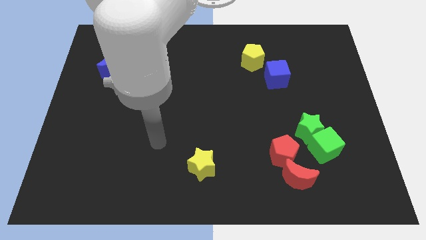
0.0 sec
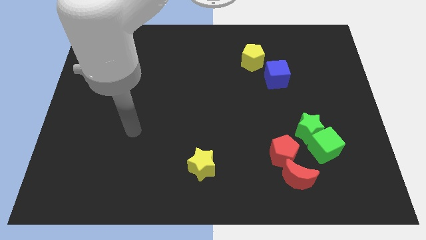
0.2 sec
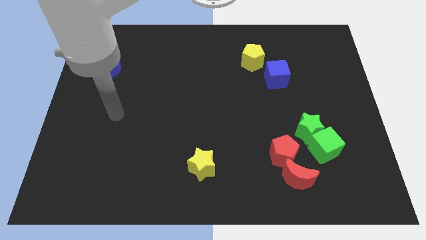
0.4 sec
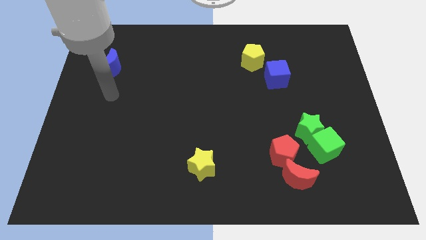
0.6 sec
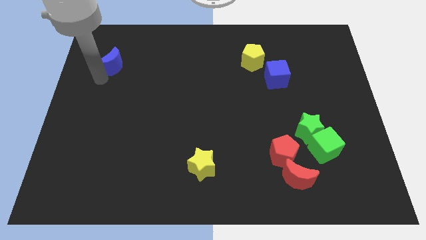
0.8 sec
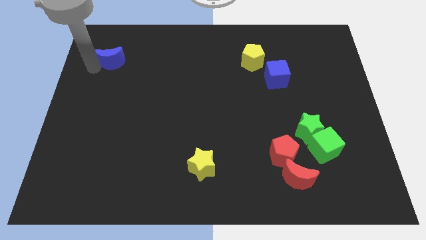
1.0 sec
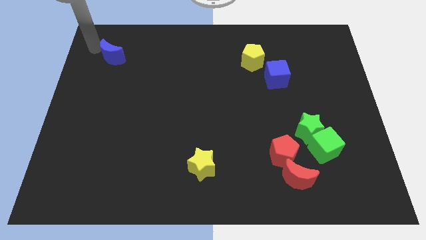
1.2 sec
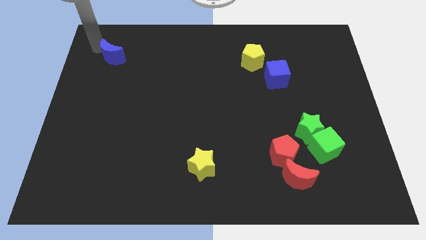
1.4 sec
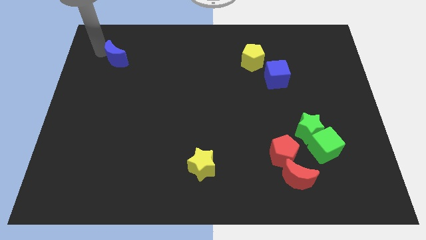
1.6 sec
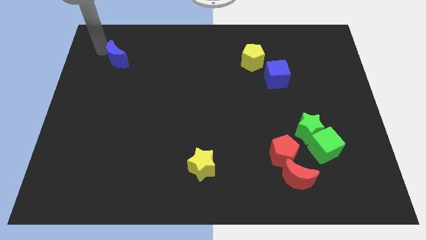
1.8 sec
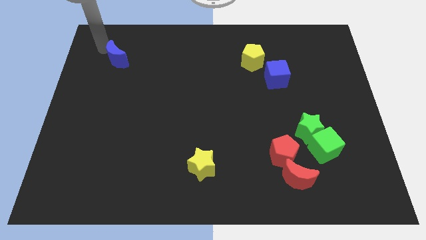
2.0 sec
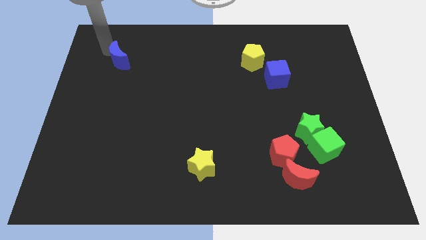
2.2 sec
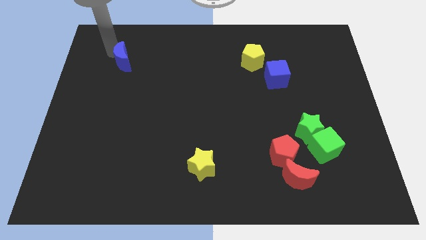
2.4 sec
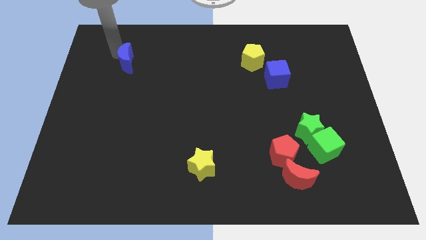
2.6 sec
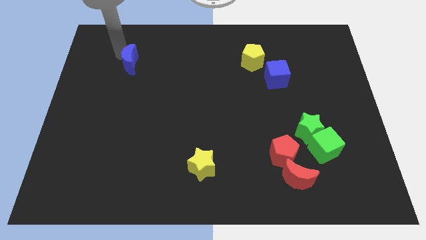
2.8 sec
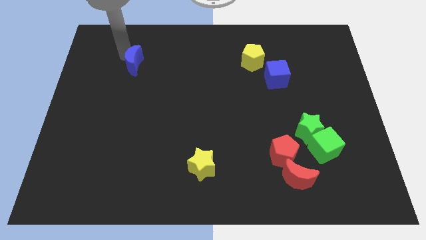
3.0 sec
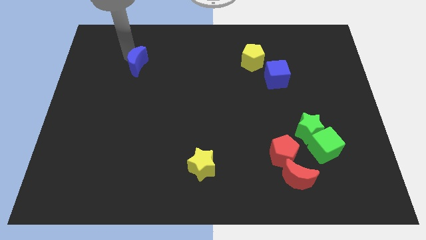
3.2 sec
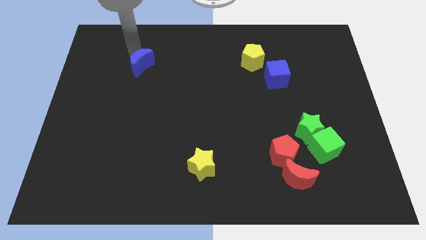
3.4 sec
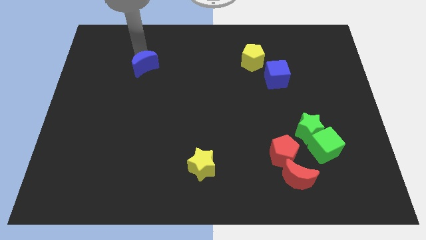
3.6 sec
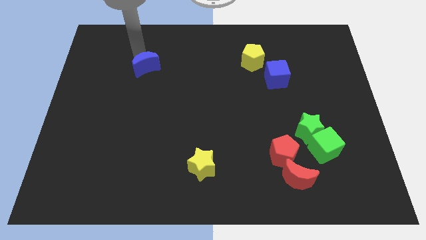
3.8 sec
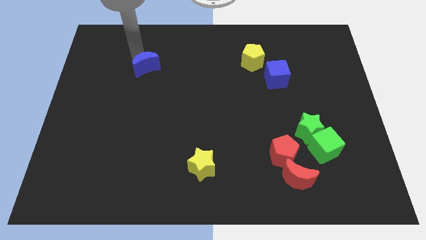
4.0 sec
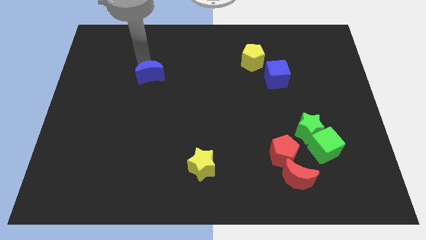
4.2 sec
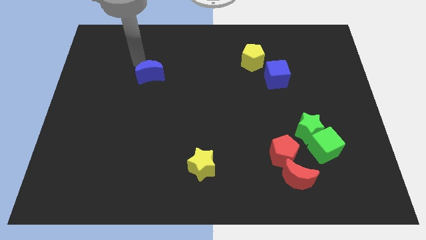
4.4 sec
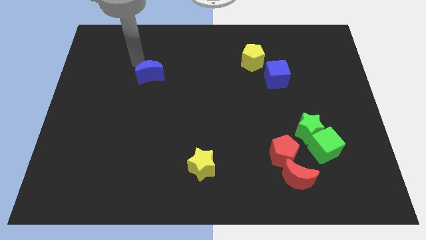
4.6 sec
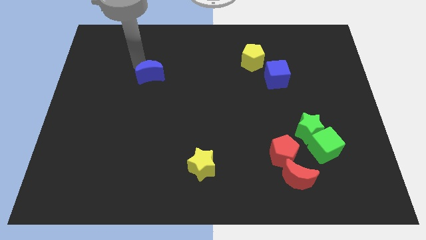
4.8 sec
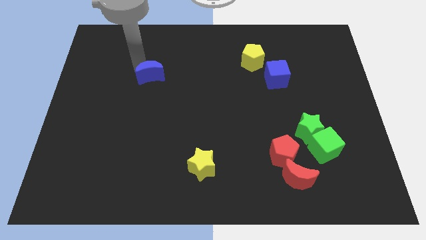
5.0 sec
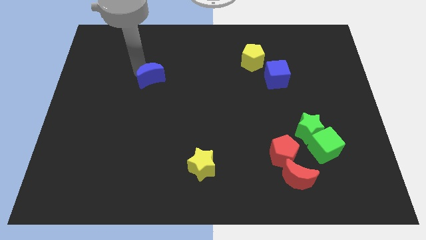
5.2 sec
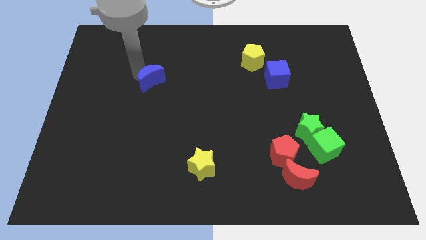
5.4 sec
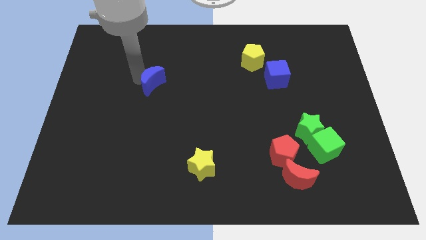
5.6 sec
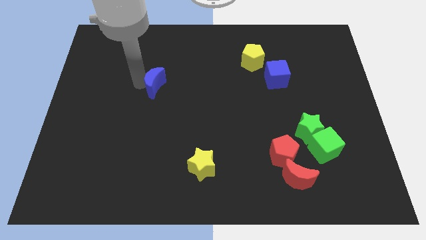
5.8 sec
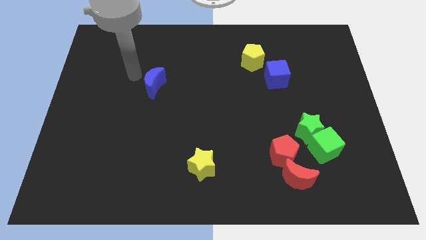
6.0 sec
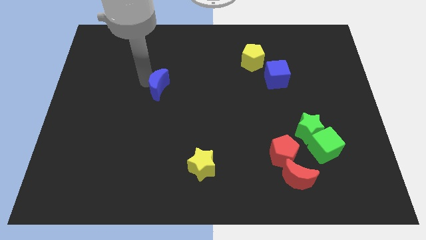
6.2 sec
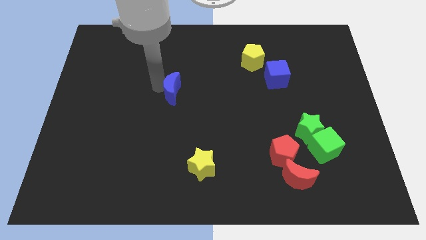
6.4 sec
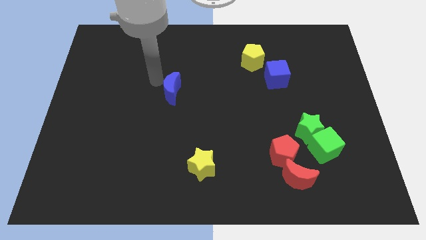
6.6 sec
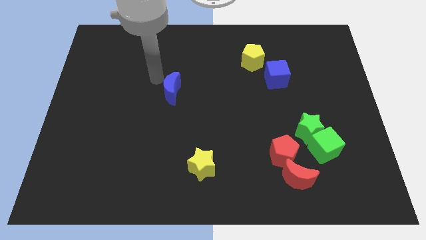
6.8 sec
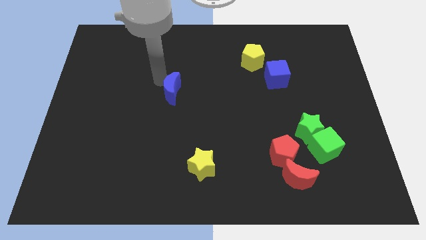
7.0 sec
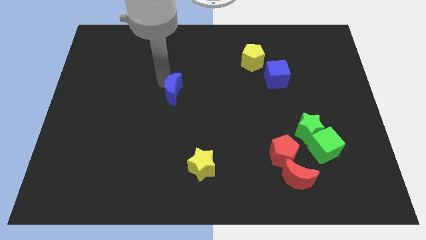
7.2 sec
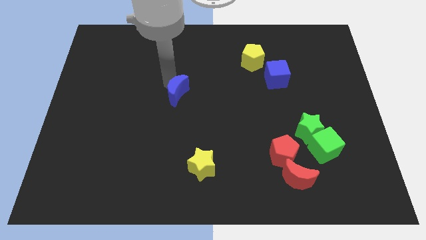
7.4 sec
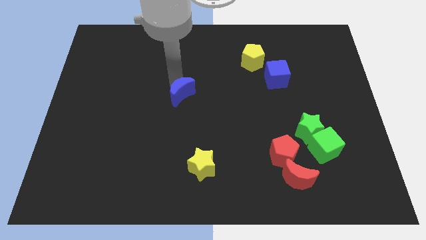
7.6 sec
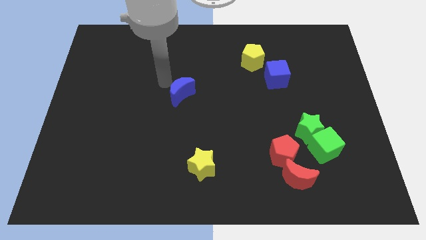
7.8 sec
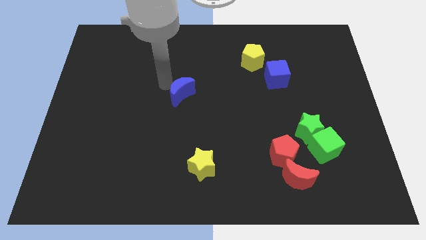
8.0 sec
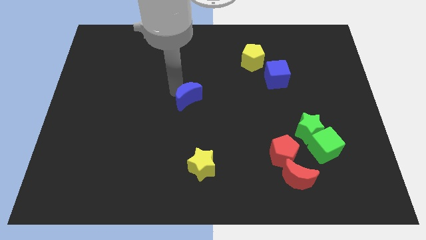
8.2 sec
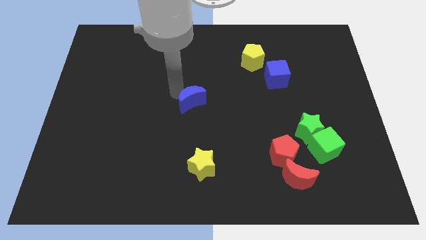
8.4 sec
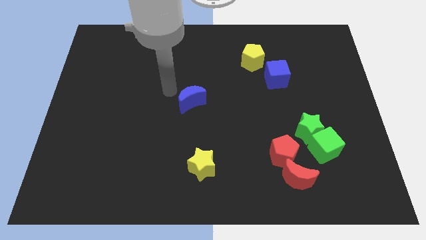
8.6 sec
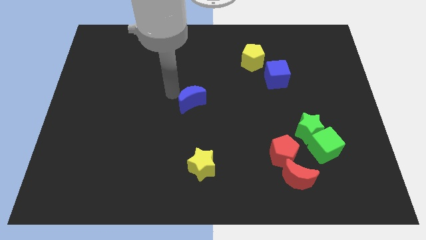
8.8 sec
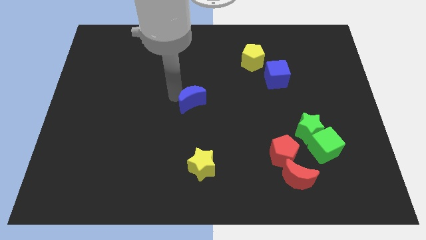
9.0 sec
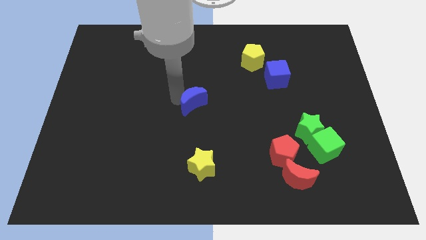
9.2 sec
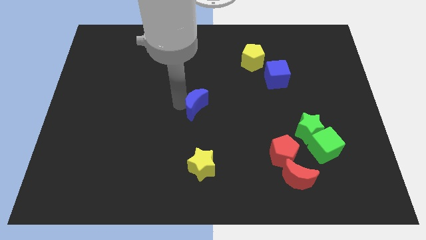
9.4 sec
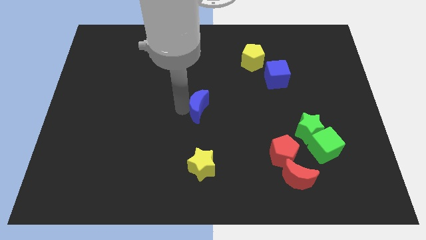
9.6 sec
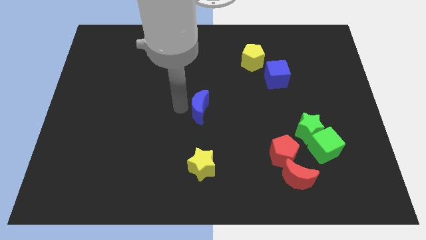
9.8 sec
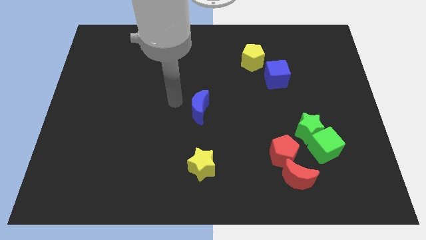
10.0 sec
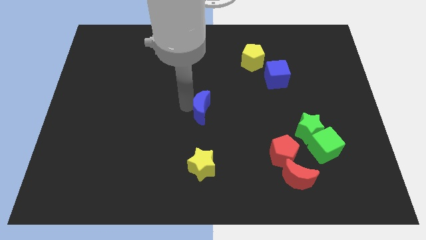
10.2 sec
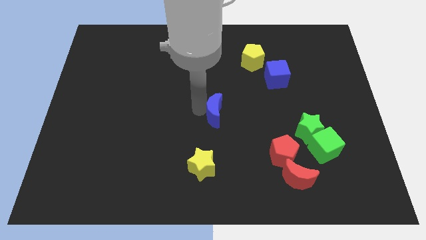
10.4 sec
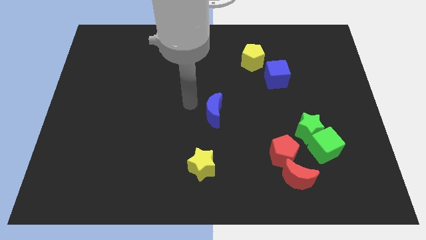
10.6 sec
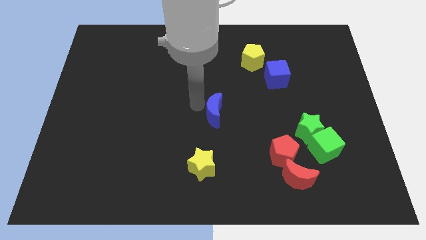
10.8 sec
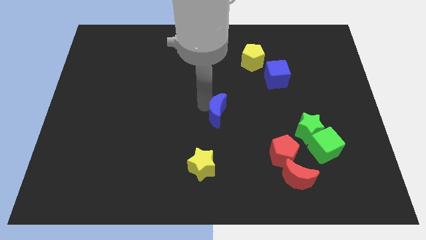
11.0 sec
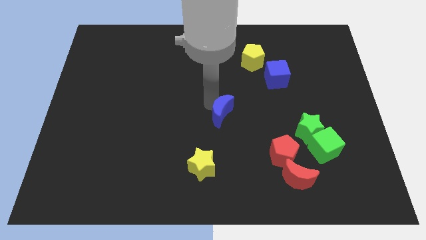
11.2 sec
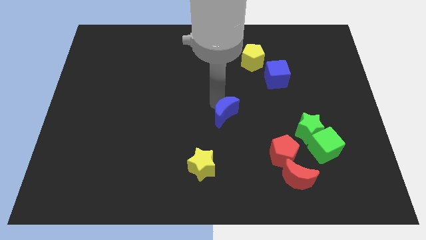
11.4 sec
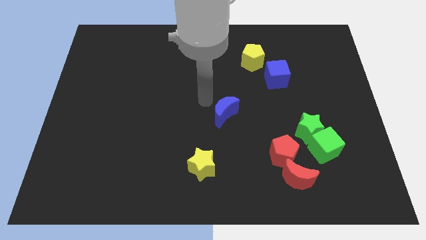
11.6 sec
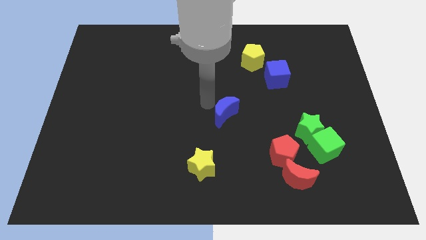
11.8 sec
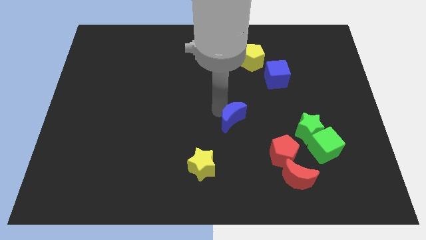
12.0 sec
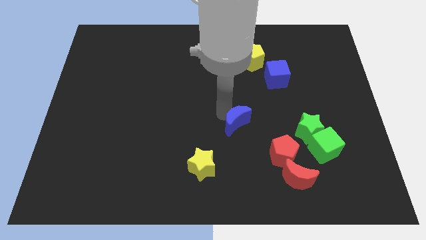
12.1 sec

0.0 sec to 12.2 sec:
move the blue moon to the left side of the green star

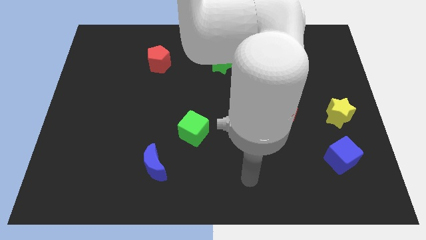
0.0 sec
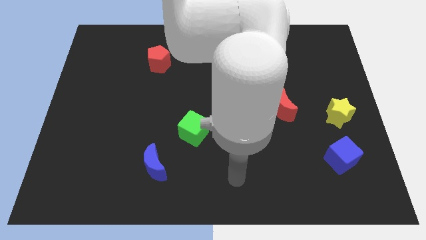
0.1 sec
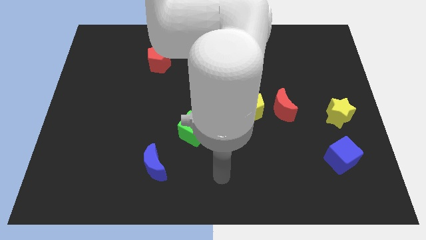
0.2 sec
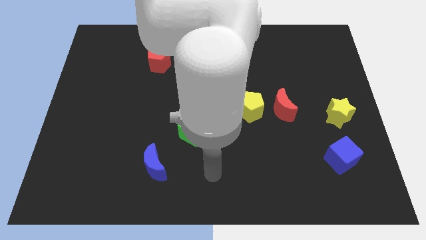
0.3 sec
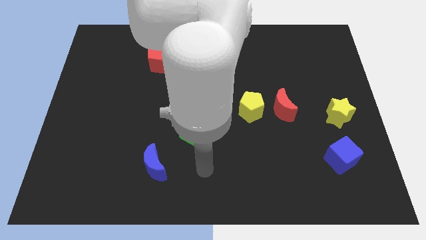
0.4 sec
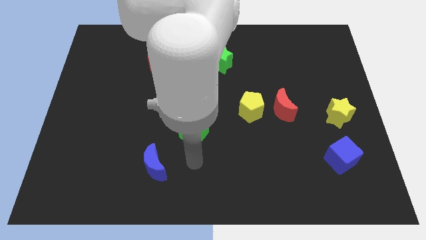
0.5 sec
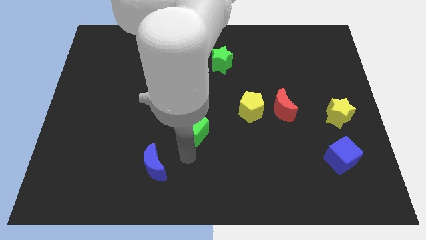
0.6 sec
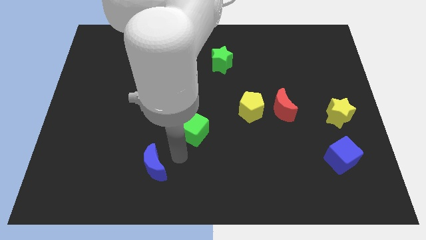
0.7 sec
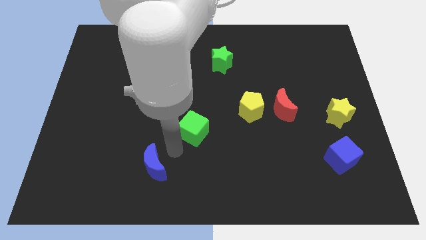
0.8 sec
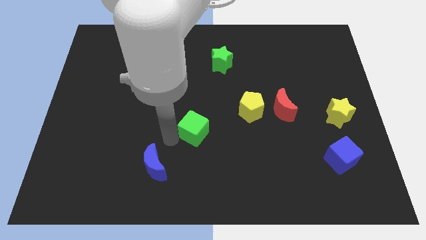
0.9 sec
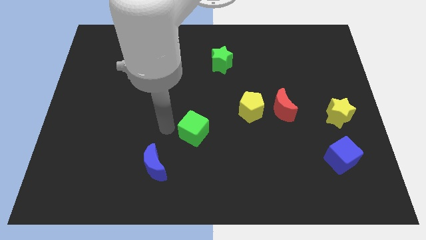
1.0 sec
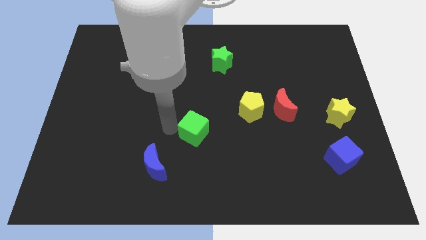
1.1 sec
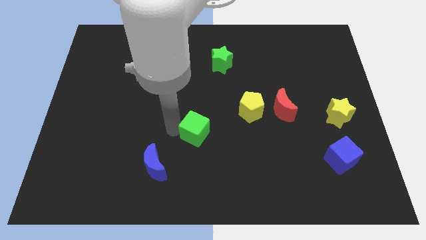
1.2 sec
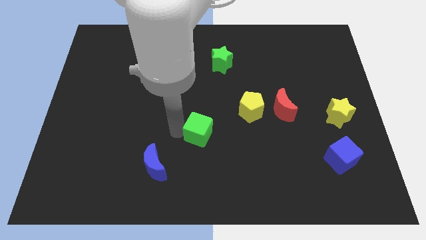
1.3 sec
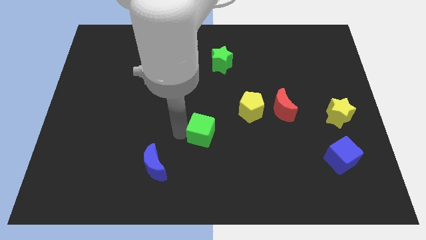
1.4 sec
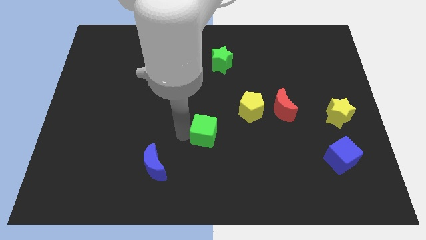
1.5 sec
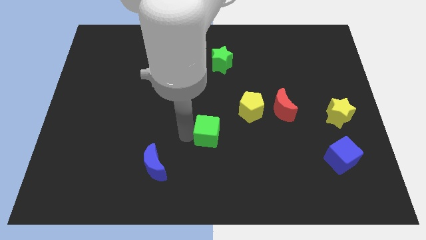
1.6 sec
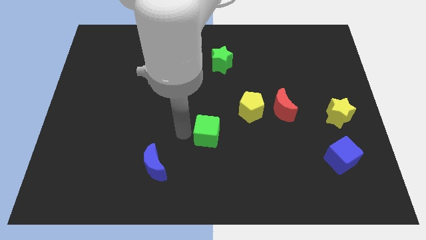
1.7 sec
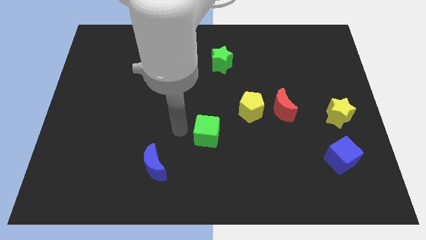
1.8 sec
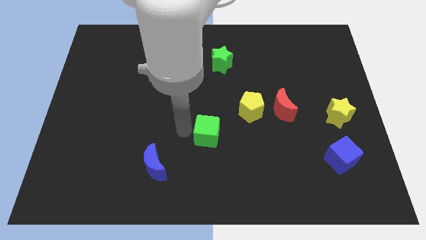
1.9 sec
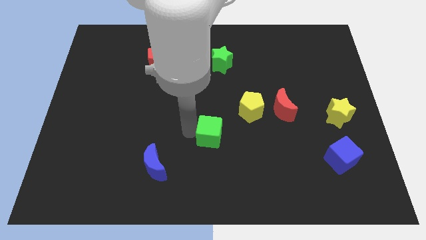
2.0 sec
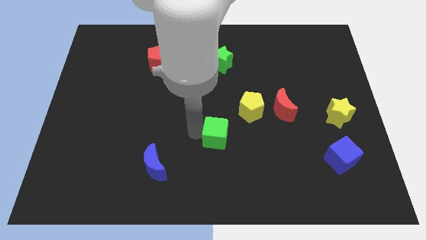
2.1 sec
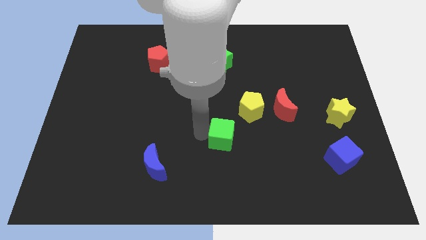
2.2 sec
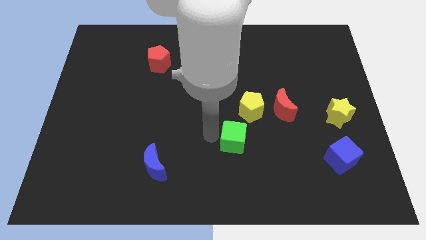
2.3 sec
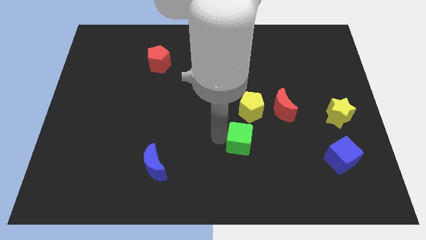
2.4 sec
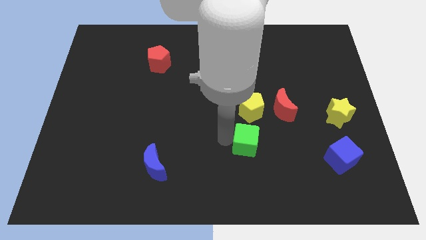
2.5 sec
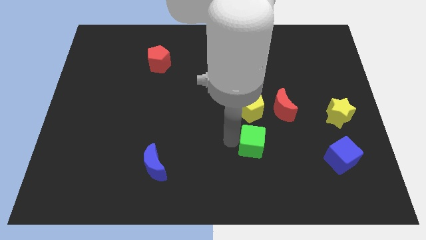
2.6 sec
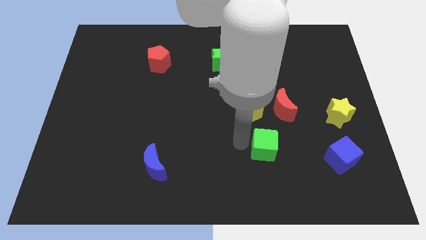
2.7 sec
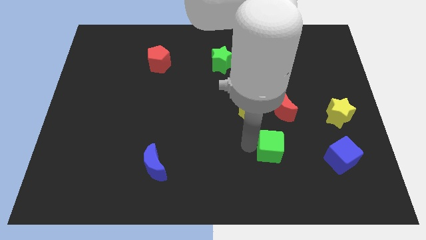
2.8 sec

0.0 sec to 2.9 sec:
move the green cube below the red moon
